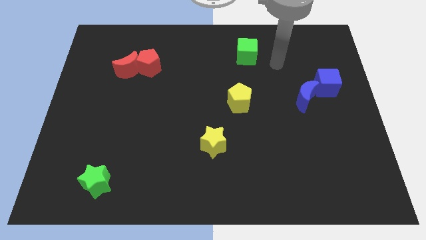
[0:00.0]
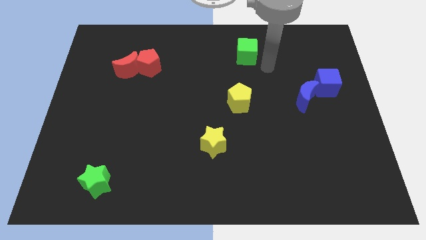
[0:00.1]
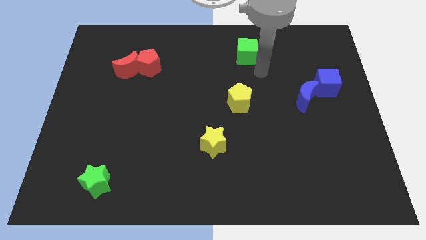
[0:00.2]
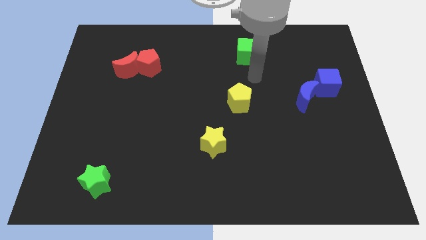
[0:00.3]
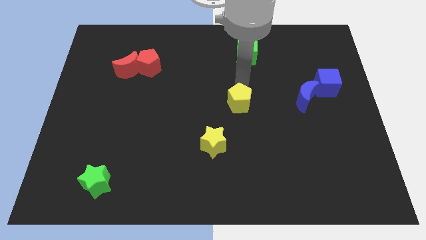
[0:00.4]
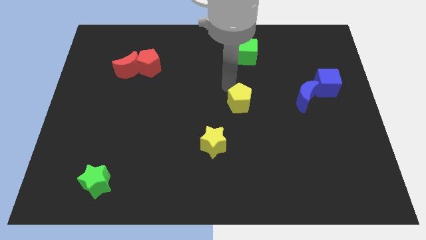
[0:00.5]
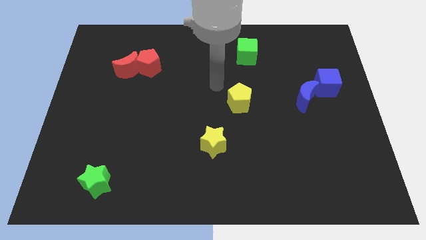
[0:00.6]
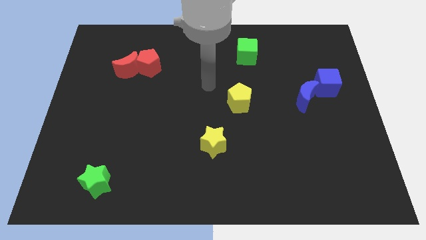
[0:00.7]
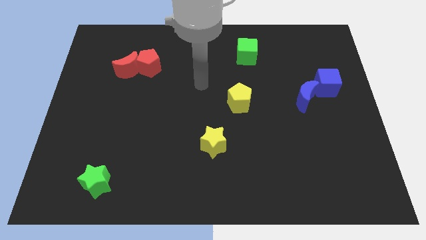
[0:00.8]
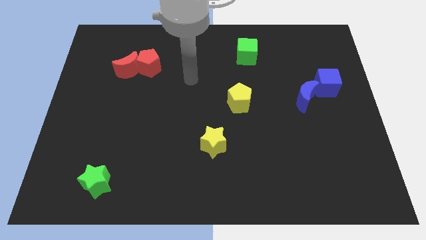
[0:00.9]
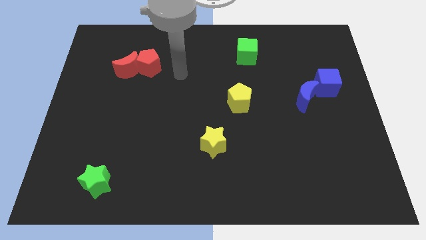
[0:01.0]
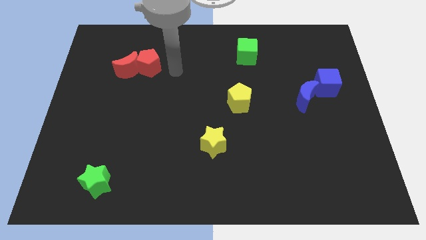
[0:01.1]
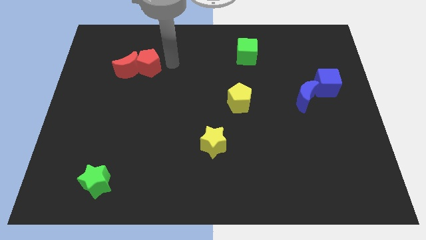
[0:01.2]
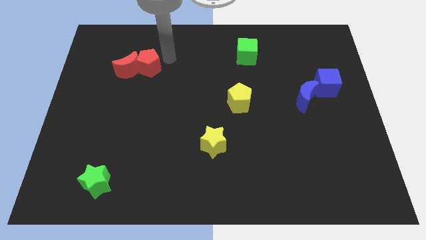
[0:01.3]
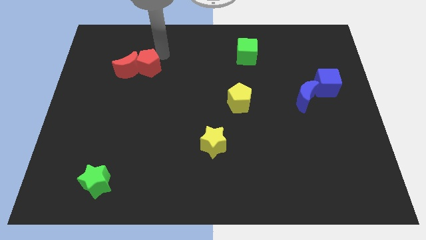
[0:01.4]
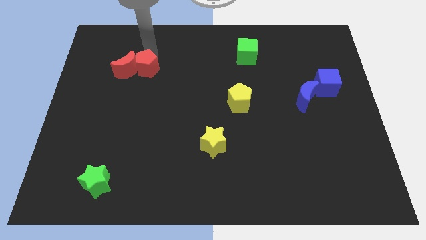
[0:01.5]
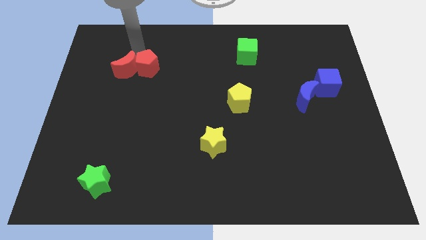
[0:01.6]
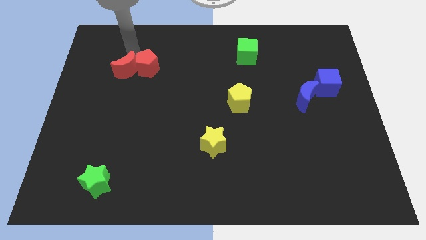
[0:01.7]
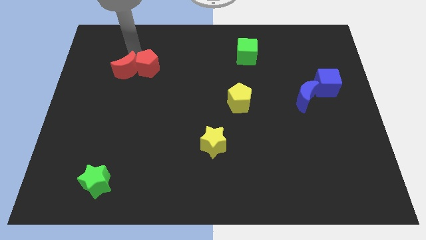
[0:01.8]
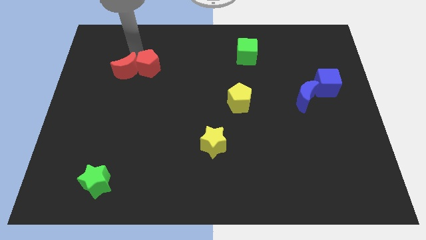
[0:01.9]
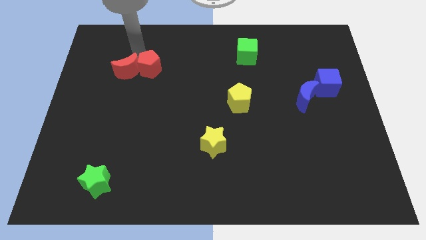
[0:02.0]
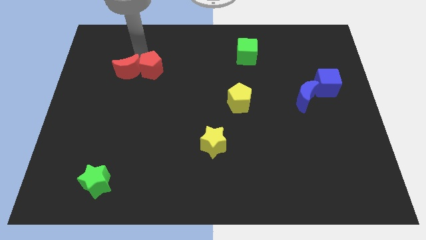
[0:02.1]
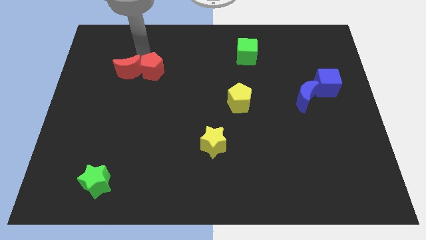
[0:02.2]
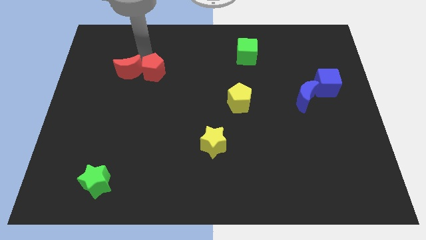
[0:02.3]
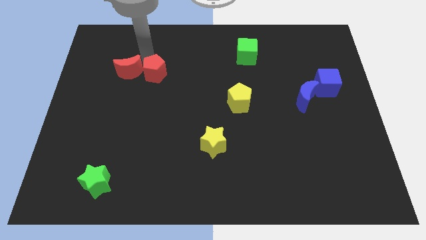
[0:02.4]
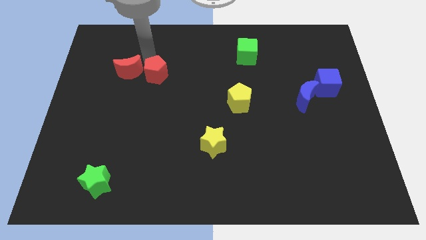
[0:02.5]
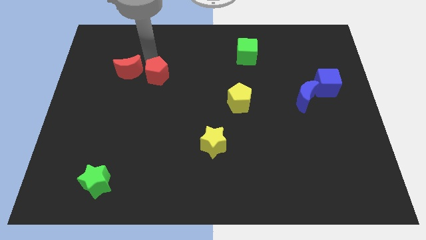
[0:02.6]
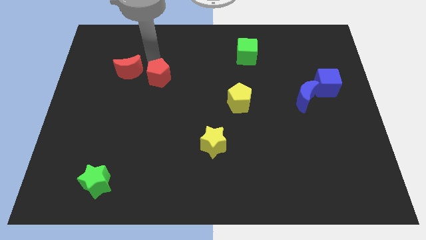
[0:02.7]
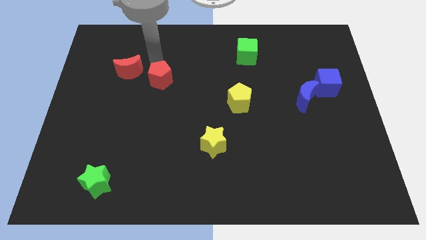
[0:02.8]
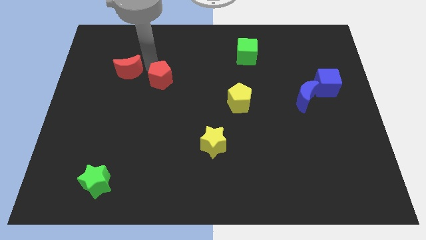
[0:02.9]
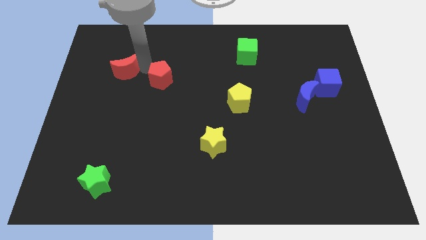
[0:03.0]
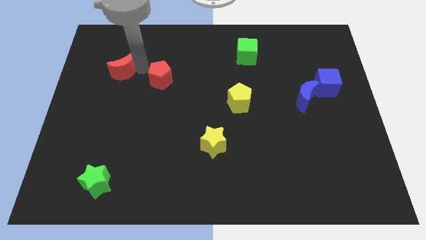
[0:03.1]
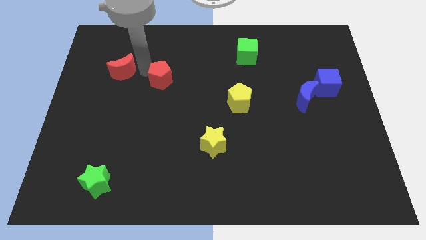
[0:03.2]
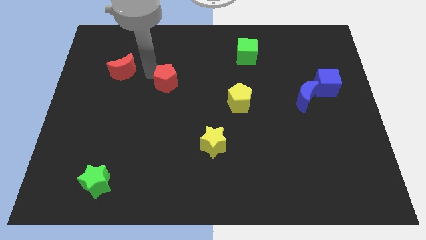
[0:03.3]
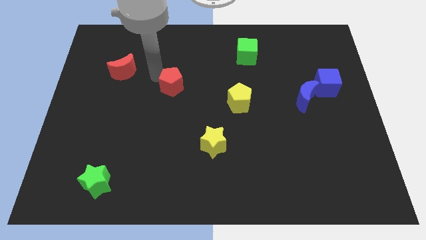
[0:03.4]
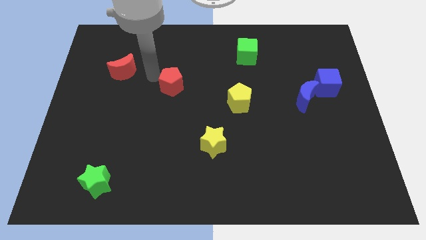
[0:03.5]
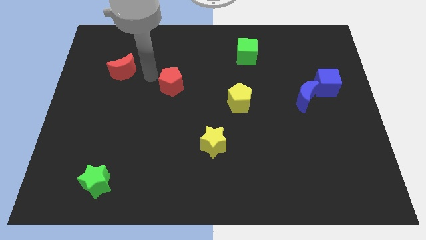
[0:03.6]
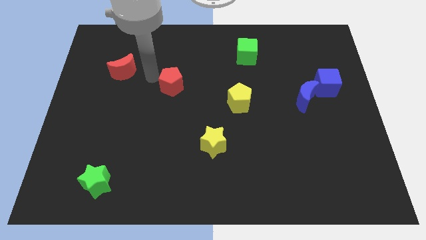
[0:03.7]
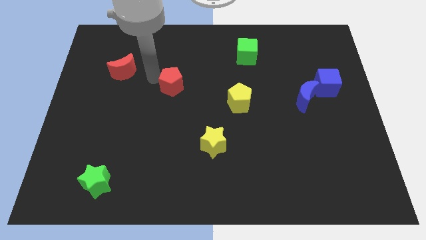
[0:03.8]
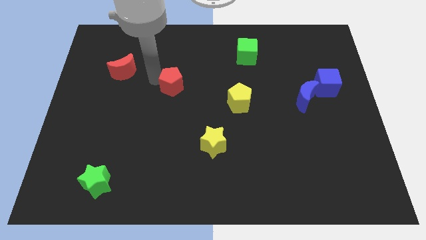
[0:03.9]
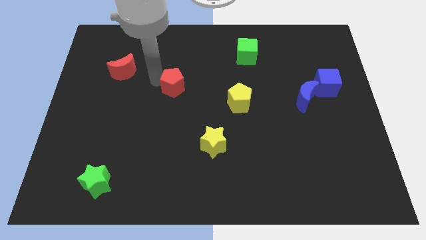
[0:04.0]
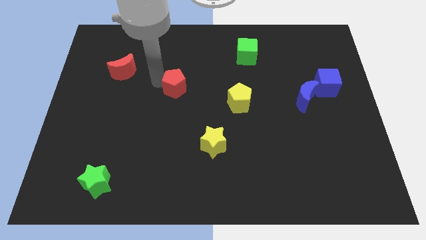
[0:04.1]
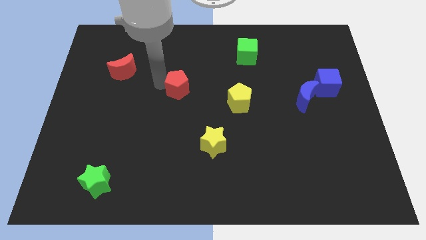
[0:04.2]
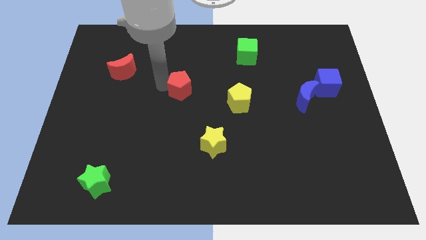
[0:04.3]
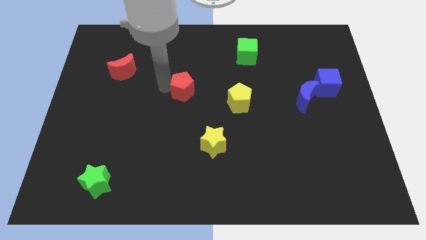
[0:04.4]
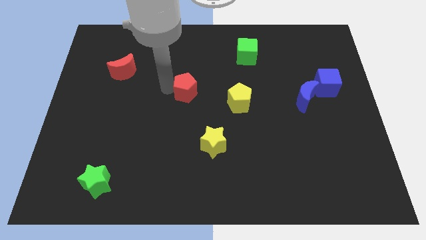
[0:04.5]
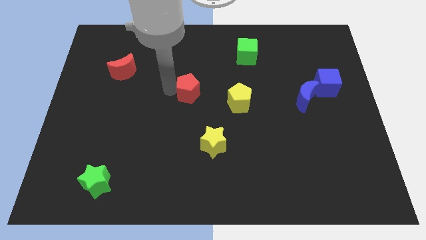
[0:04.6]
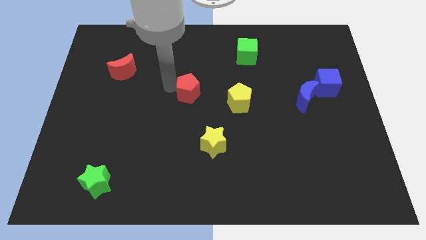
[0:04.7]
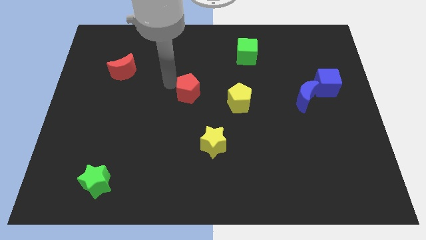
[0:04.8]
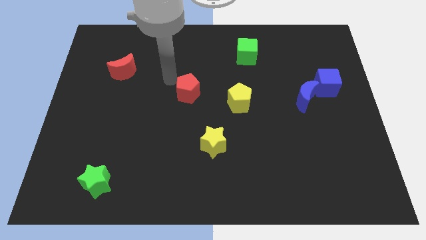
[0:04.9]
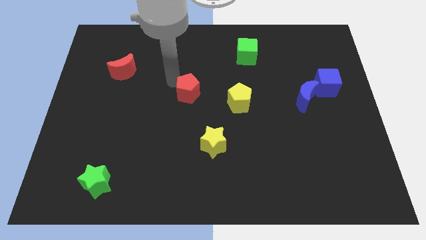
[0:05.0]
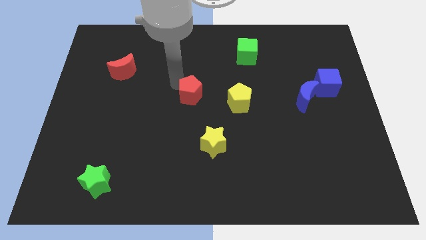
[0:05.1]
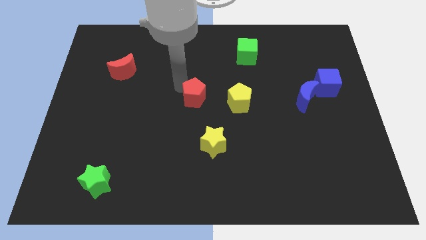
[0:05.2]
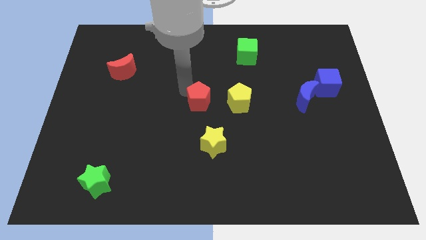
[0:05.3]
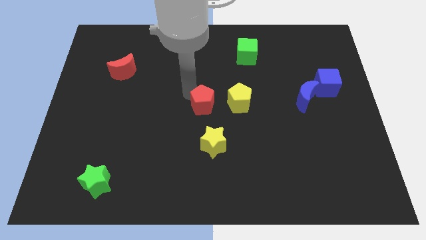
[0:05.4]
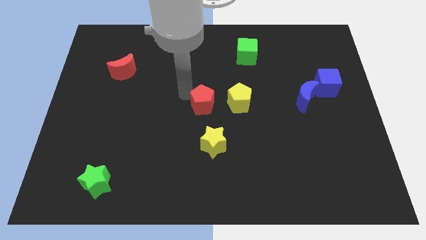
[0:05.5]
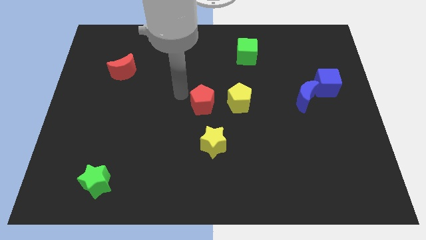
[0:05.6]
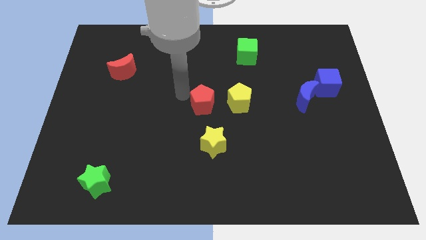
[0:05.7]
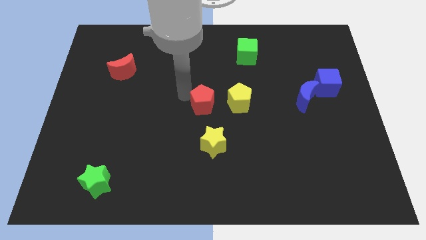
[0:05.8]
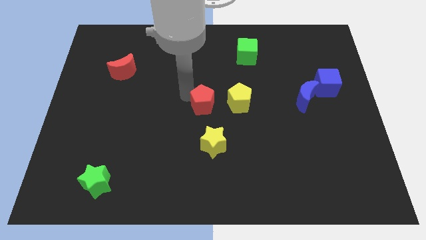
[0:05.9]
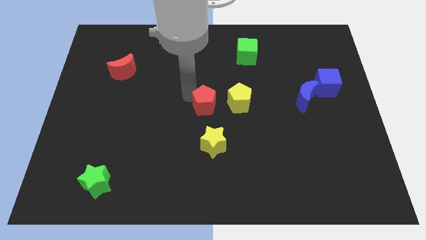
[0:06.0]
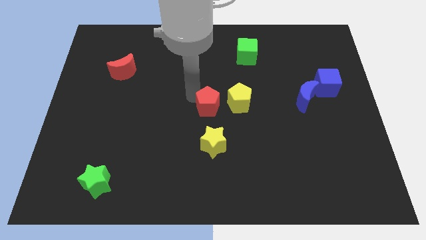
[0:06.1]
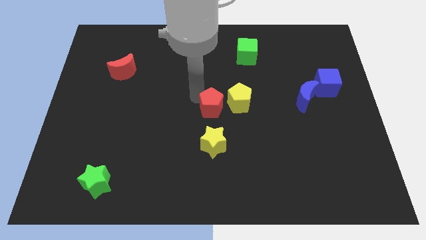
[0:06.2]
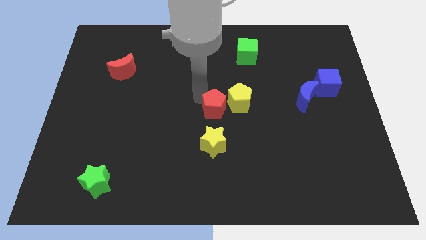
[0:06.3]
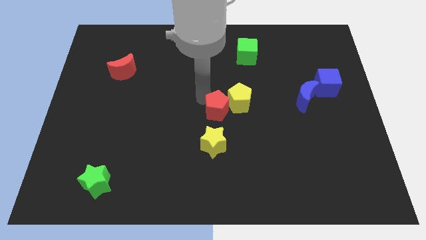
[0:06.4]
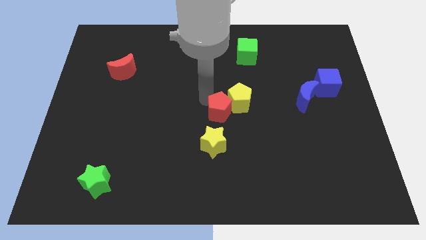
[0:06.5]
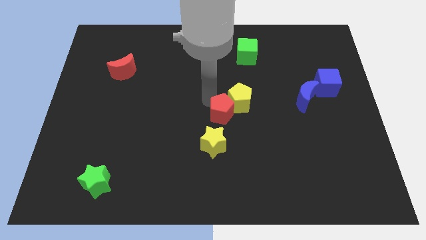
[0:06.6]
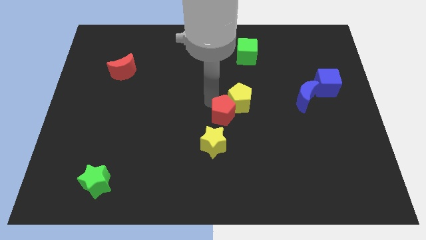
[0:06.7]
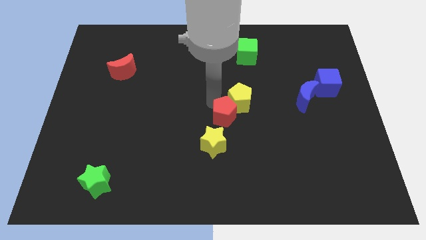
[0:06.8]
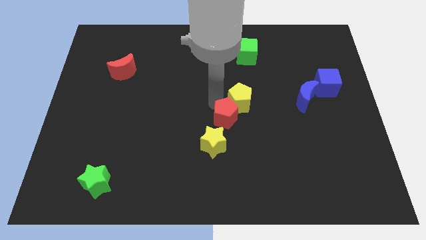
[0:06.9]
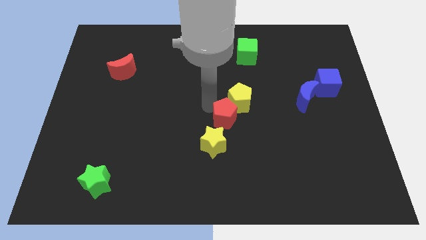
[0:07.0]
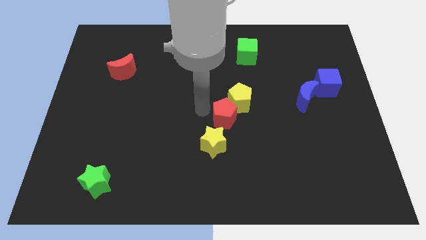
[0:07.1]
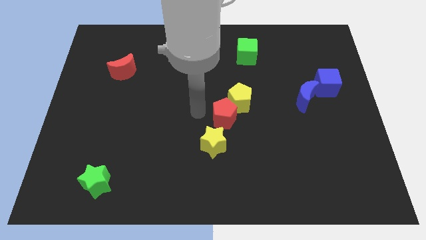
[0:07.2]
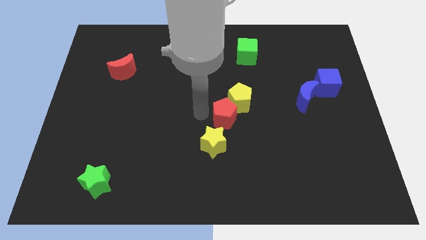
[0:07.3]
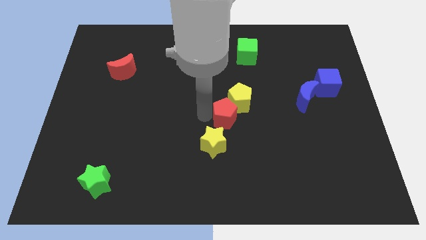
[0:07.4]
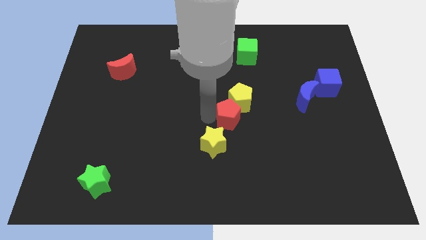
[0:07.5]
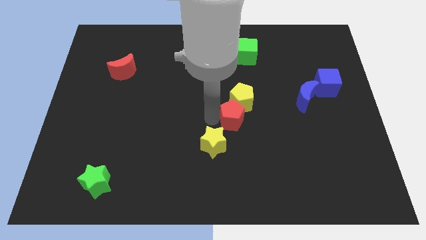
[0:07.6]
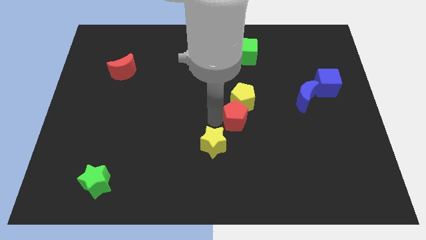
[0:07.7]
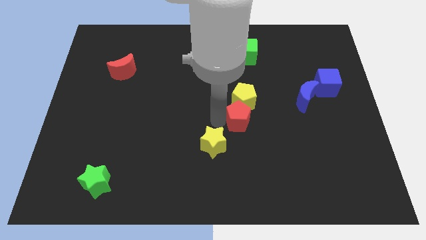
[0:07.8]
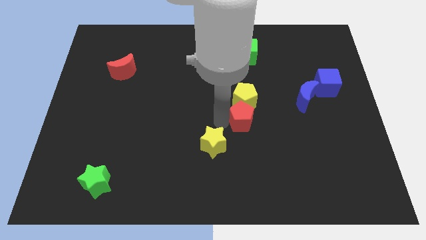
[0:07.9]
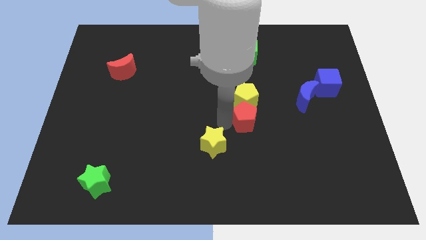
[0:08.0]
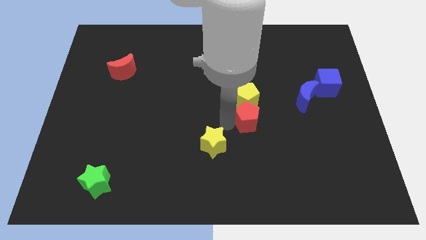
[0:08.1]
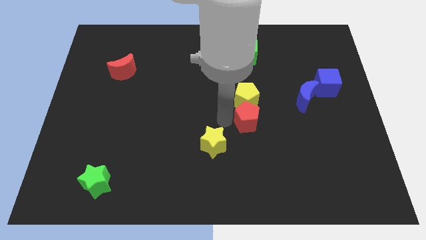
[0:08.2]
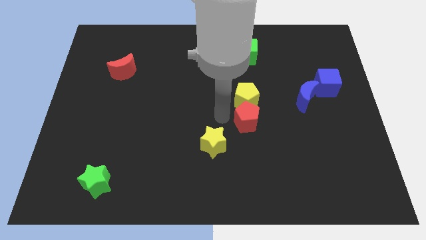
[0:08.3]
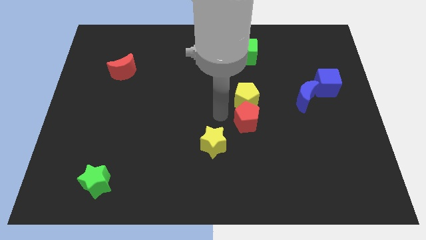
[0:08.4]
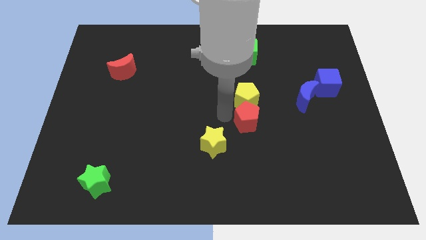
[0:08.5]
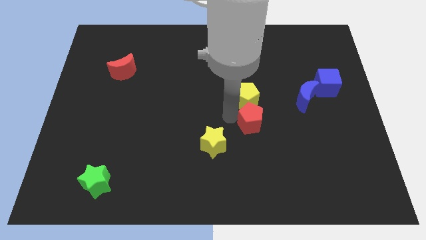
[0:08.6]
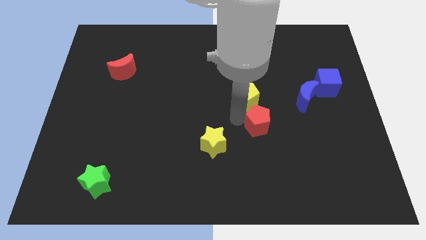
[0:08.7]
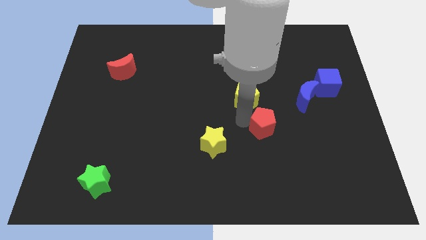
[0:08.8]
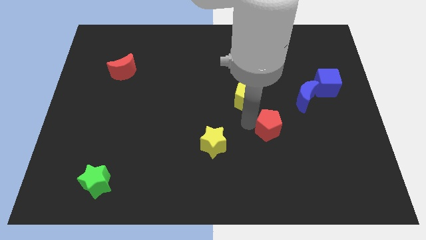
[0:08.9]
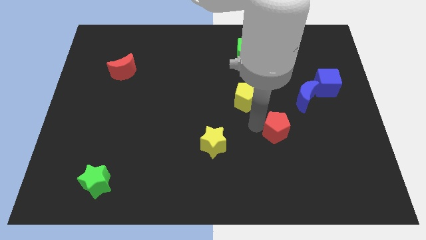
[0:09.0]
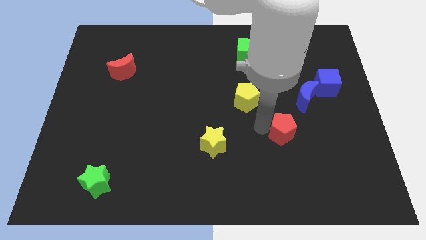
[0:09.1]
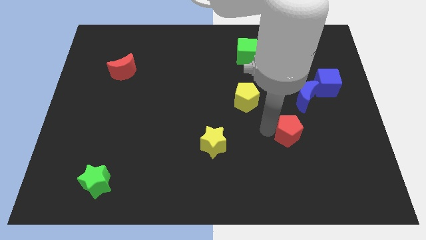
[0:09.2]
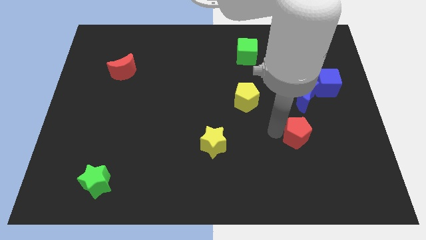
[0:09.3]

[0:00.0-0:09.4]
slide the red pentagon to the bottom side of the blue moon
